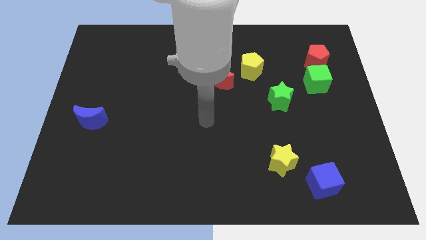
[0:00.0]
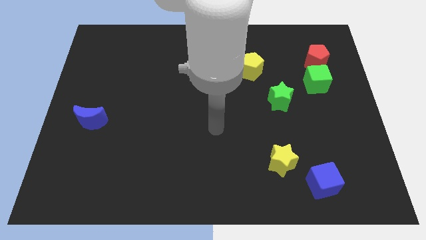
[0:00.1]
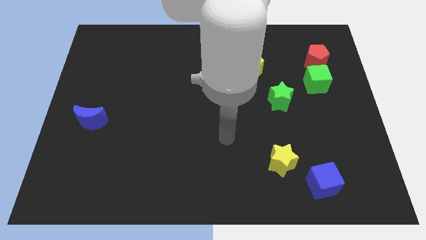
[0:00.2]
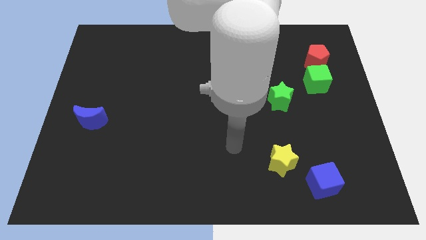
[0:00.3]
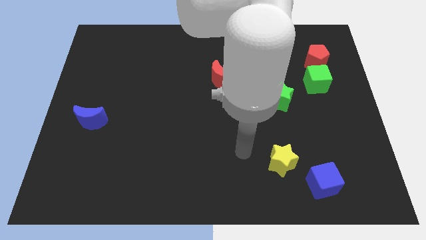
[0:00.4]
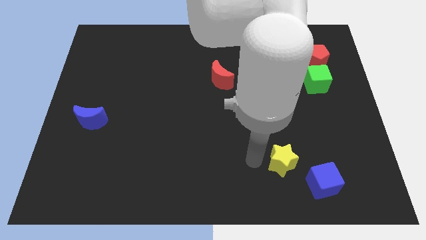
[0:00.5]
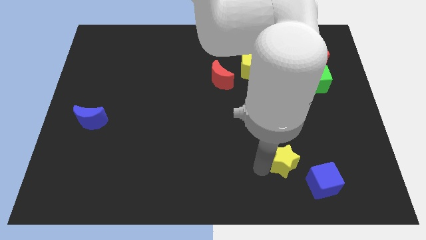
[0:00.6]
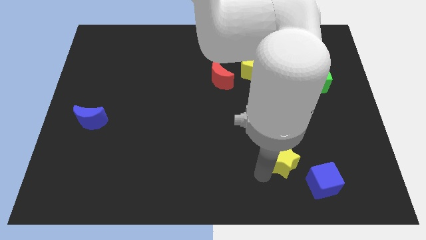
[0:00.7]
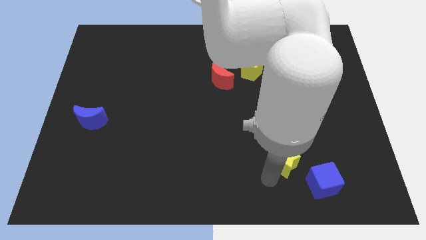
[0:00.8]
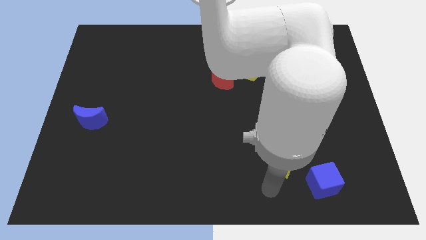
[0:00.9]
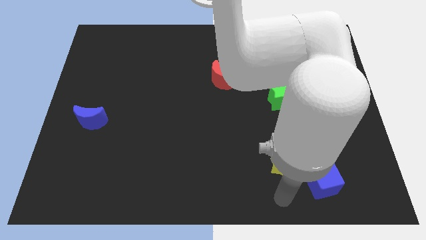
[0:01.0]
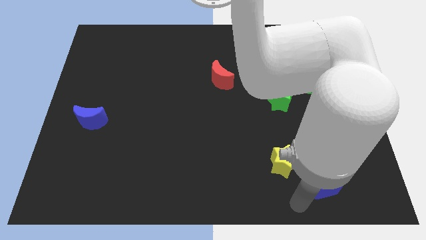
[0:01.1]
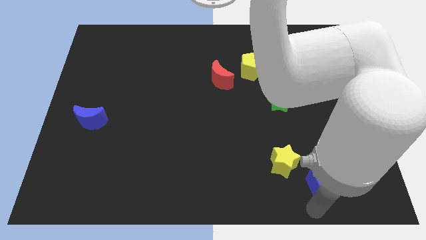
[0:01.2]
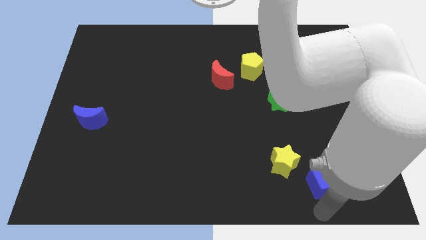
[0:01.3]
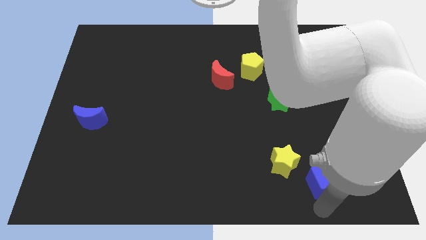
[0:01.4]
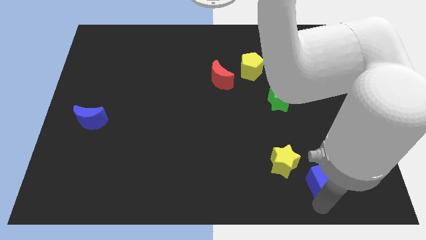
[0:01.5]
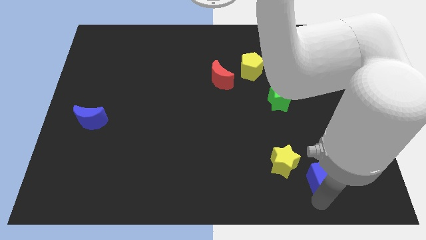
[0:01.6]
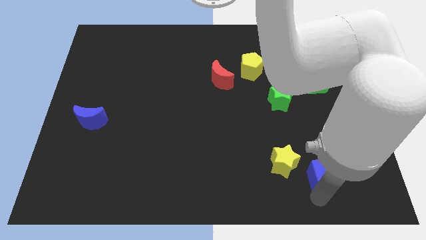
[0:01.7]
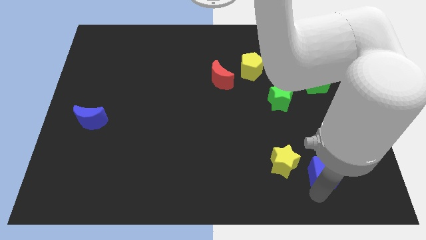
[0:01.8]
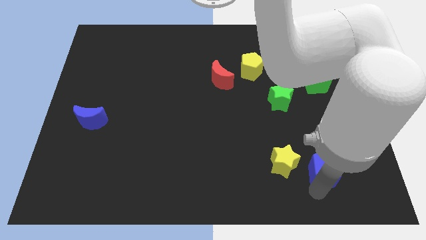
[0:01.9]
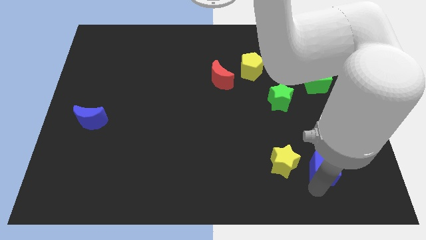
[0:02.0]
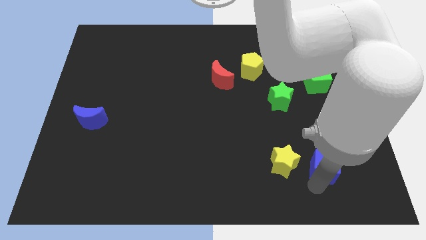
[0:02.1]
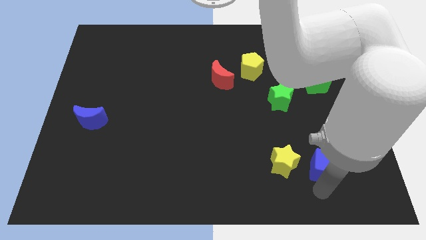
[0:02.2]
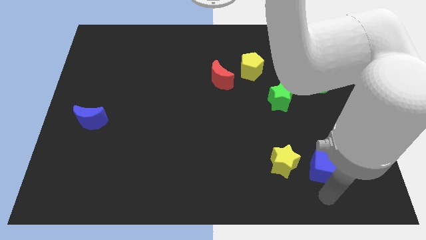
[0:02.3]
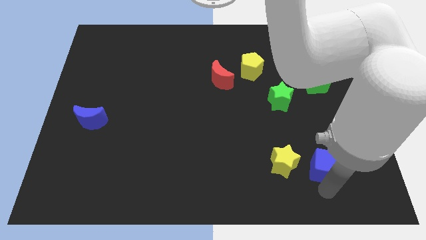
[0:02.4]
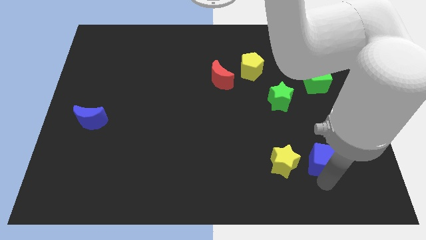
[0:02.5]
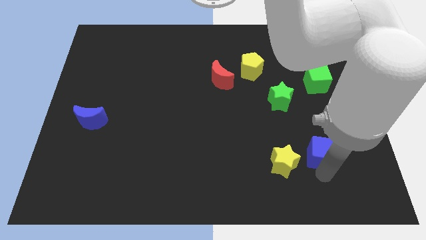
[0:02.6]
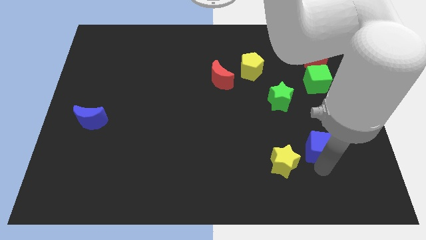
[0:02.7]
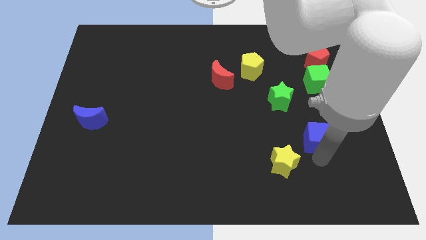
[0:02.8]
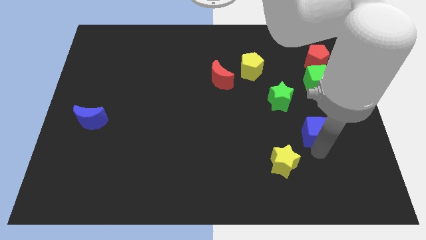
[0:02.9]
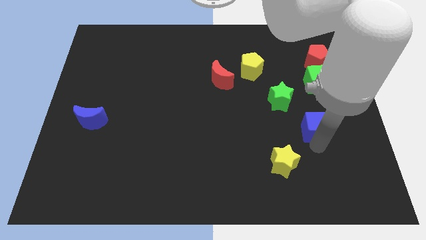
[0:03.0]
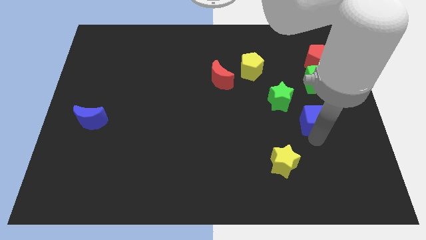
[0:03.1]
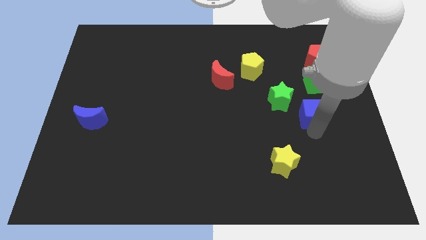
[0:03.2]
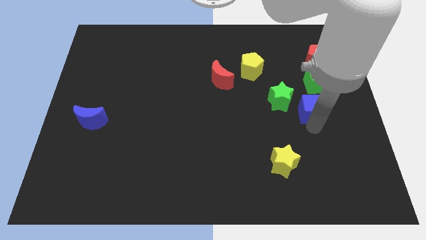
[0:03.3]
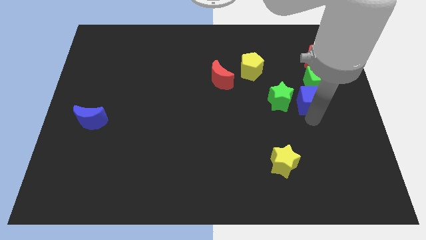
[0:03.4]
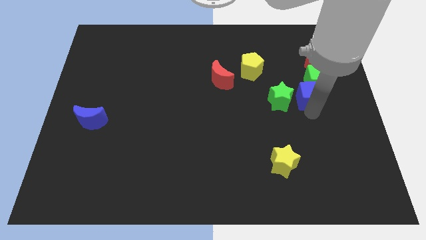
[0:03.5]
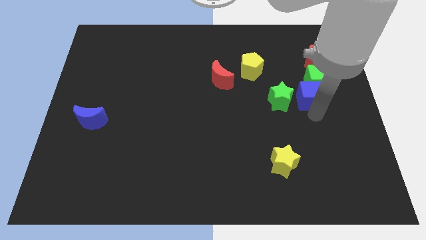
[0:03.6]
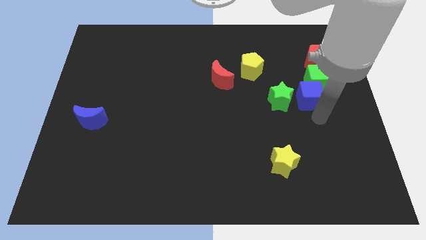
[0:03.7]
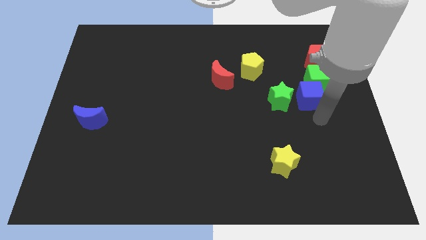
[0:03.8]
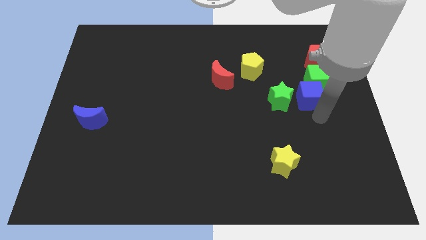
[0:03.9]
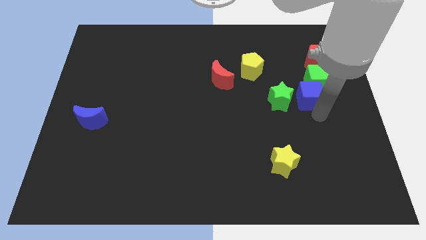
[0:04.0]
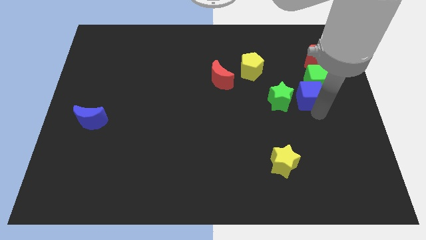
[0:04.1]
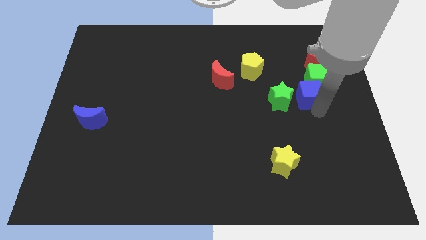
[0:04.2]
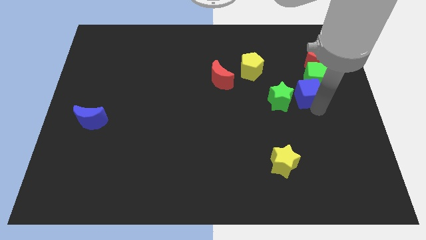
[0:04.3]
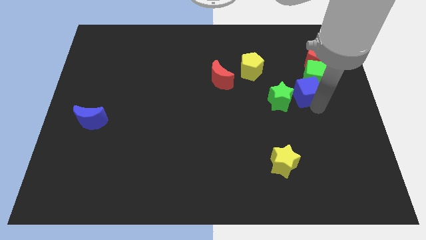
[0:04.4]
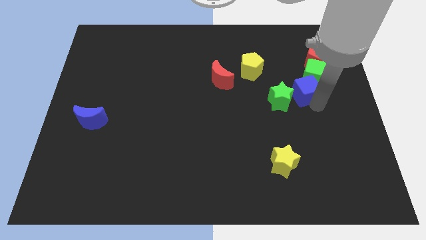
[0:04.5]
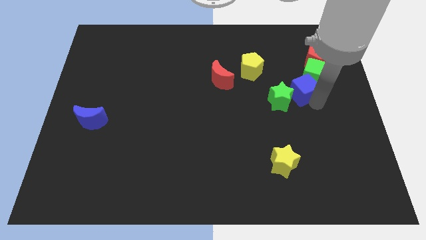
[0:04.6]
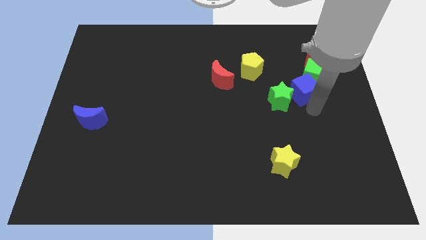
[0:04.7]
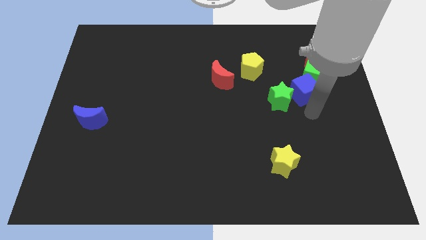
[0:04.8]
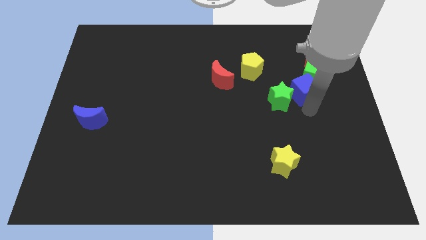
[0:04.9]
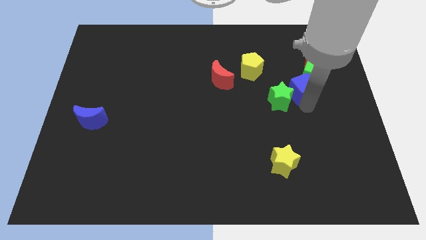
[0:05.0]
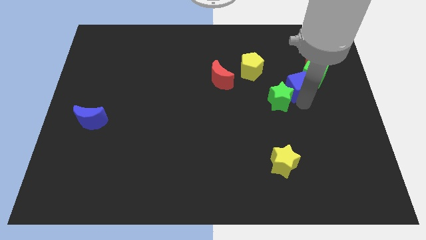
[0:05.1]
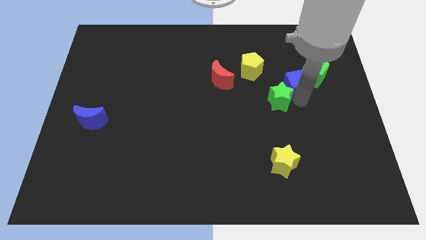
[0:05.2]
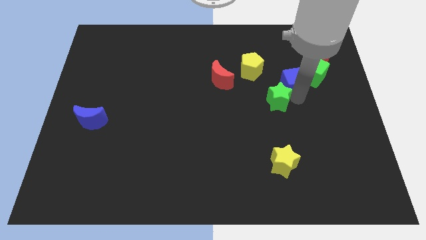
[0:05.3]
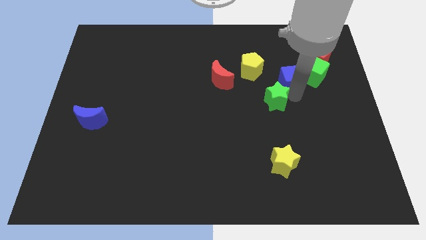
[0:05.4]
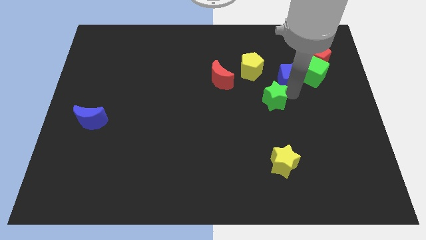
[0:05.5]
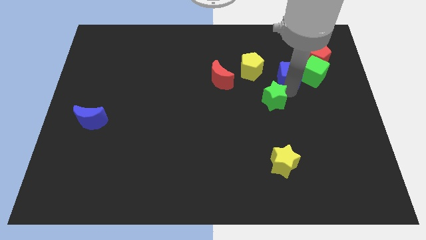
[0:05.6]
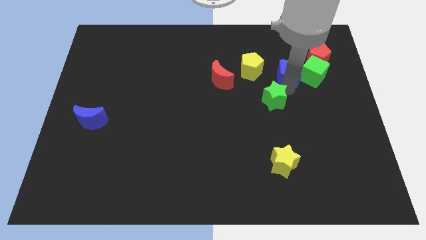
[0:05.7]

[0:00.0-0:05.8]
put the blue cube diagonally up and to the left of the green cube

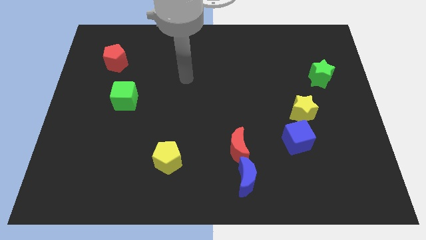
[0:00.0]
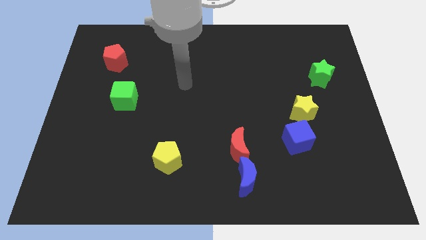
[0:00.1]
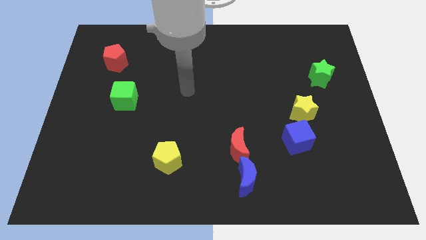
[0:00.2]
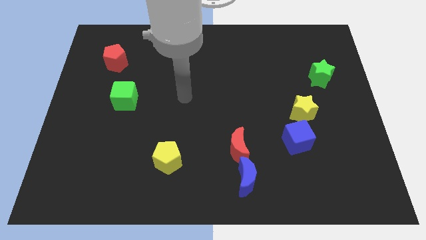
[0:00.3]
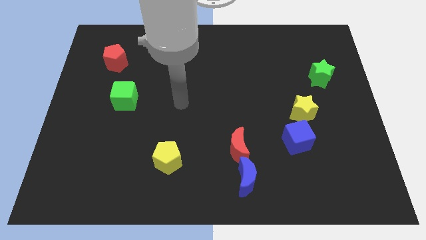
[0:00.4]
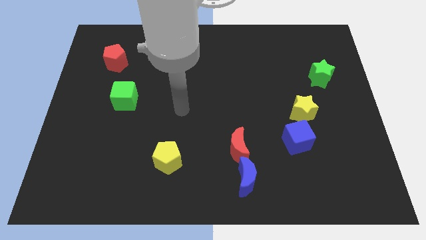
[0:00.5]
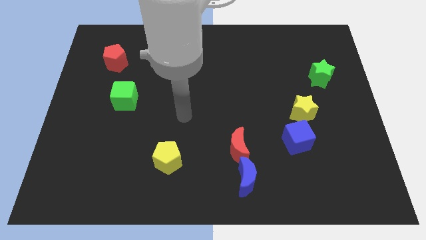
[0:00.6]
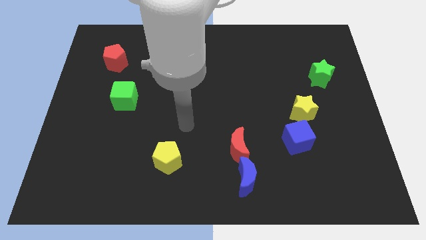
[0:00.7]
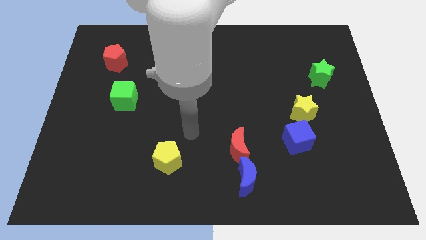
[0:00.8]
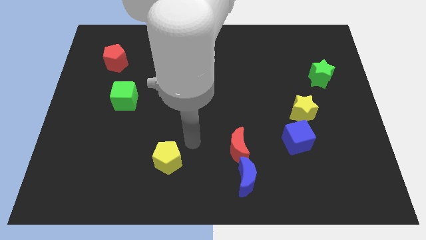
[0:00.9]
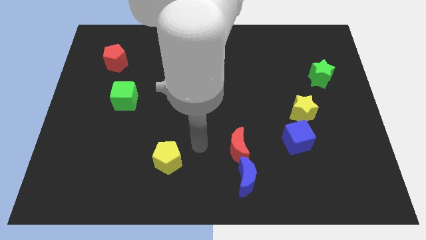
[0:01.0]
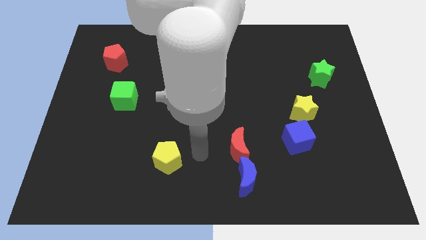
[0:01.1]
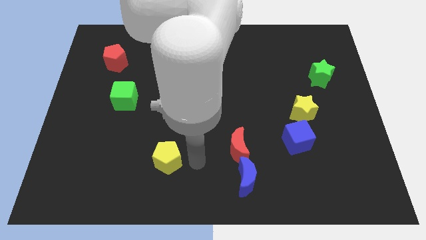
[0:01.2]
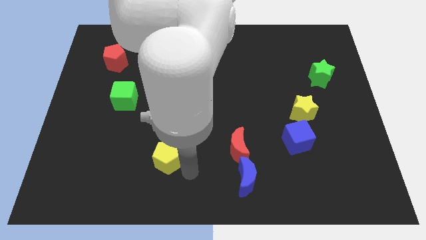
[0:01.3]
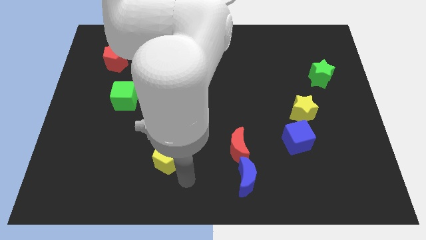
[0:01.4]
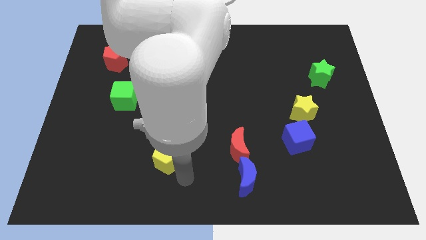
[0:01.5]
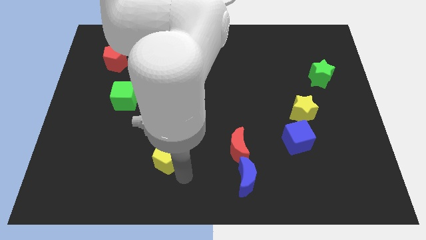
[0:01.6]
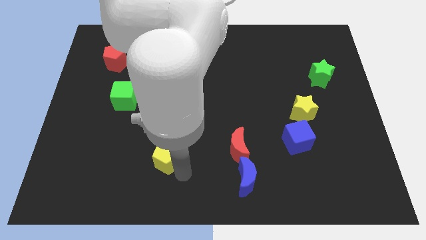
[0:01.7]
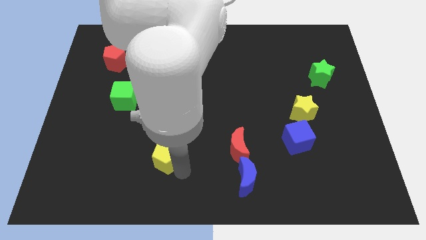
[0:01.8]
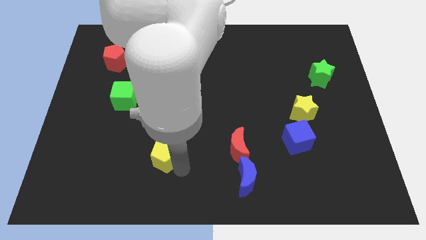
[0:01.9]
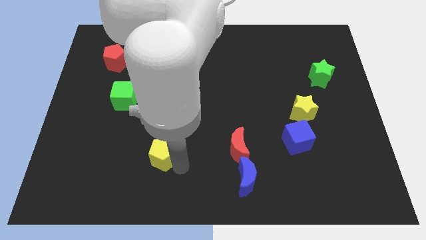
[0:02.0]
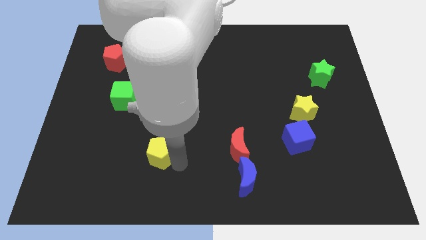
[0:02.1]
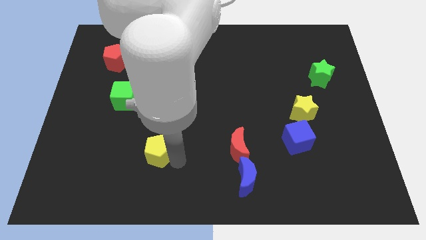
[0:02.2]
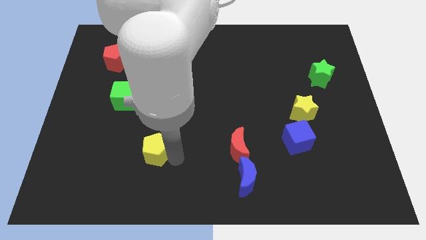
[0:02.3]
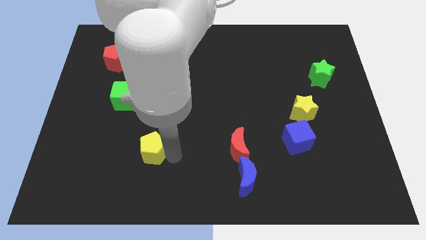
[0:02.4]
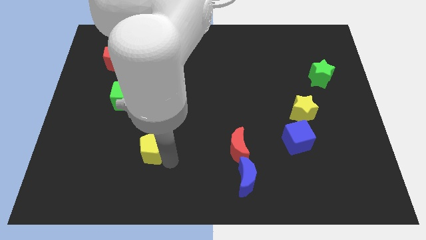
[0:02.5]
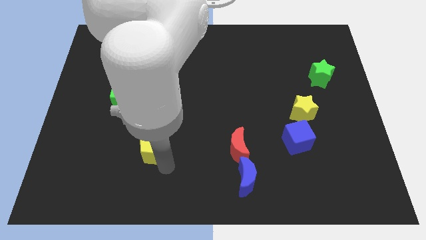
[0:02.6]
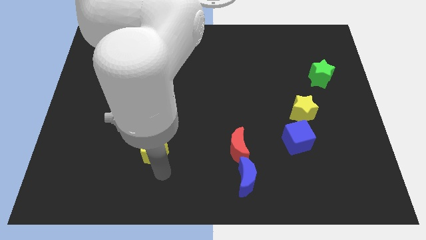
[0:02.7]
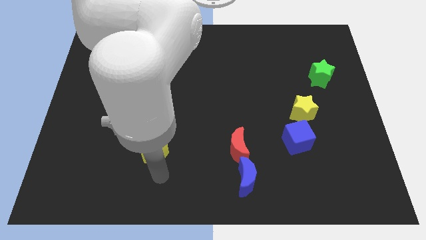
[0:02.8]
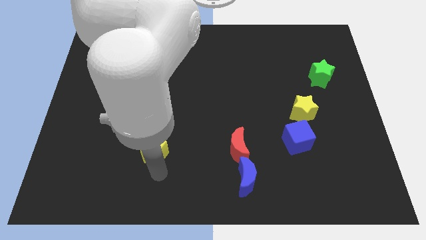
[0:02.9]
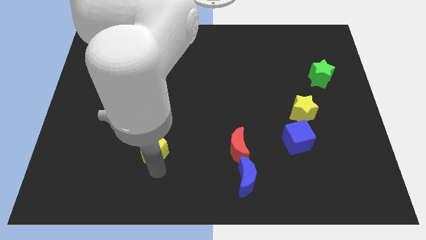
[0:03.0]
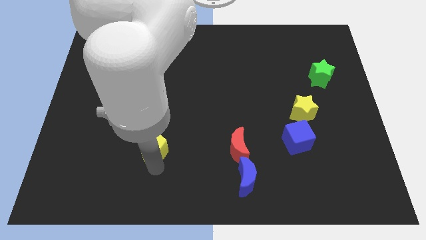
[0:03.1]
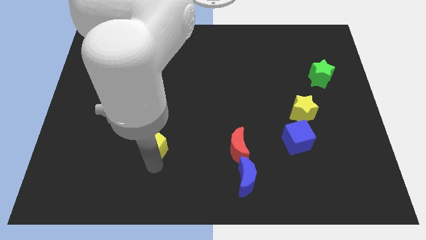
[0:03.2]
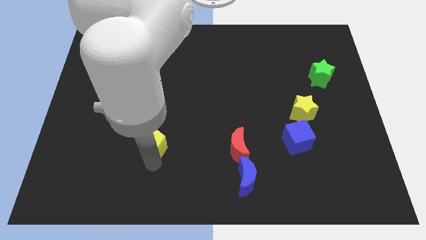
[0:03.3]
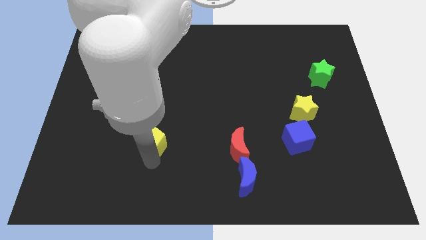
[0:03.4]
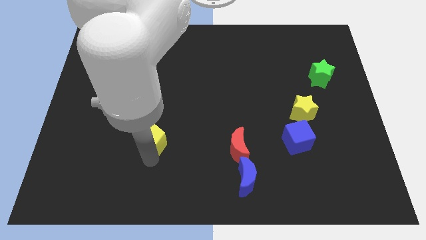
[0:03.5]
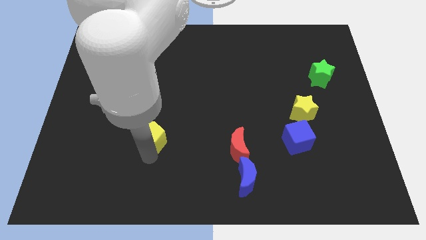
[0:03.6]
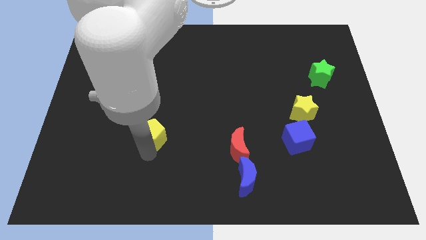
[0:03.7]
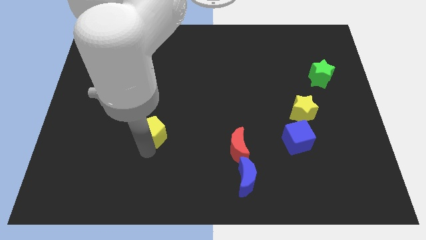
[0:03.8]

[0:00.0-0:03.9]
slide the yellow pentagon to the bottom right of the green cube
